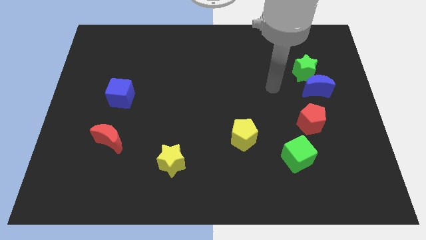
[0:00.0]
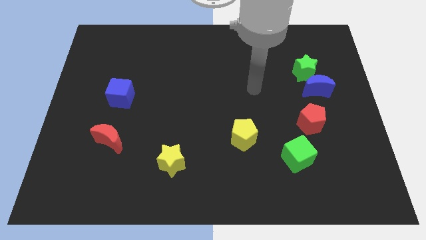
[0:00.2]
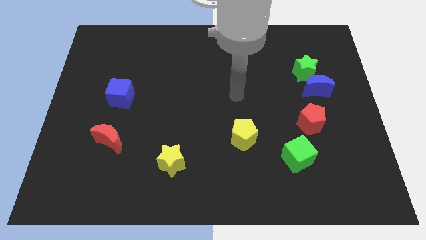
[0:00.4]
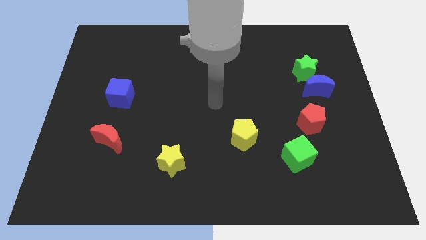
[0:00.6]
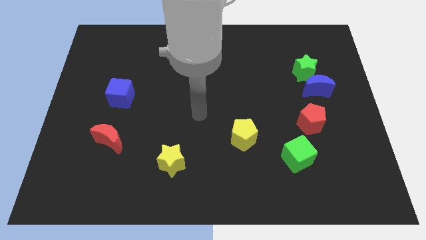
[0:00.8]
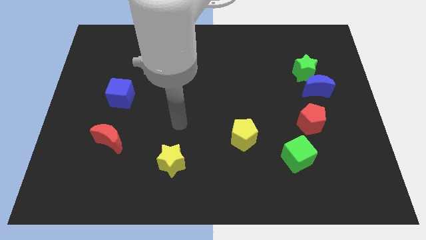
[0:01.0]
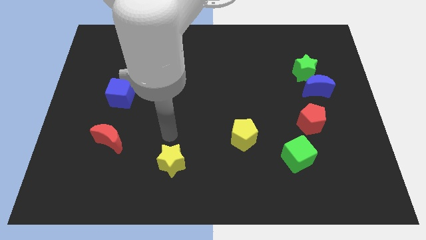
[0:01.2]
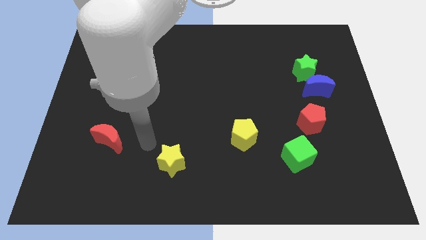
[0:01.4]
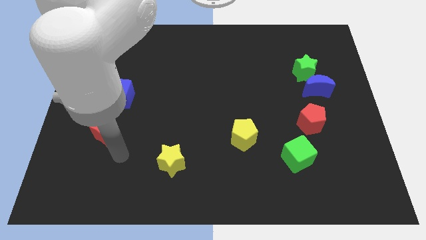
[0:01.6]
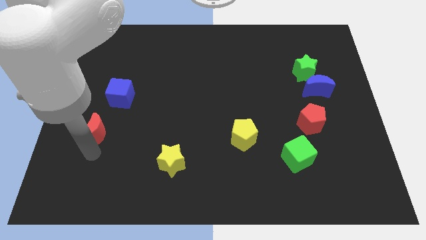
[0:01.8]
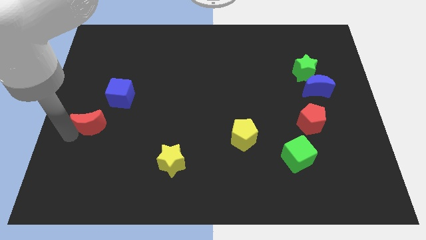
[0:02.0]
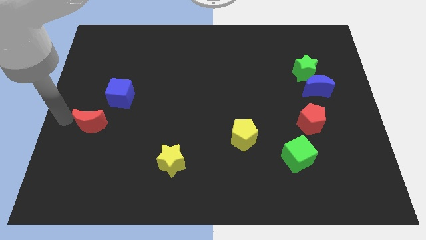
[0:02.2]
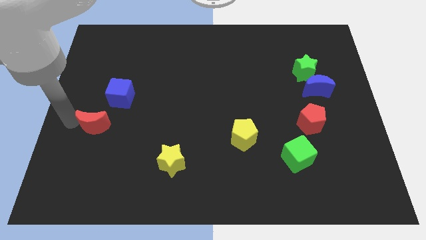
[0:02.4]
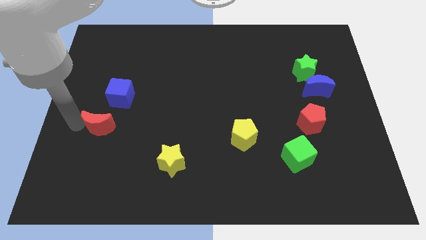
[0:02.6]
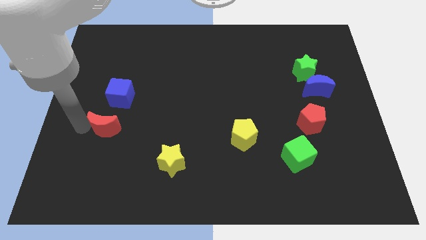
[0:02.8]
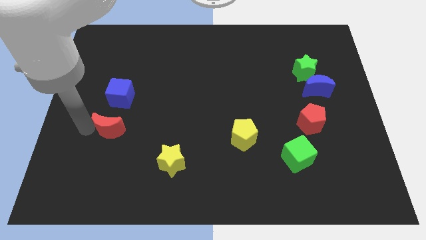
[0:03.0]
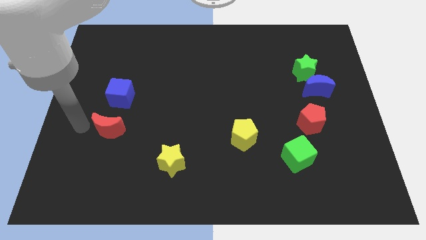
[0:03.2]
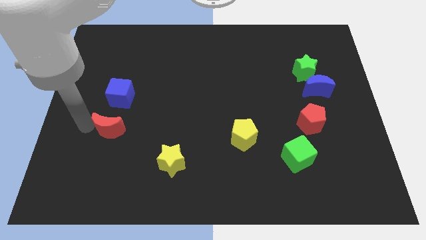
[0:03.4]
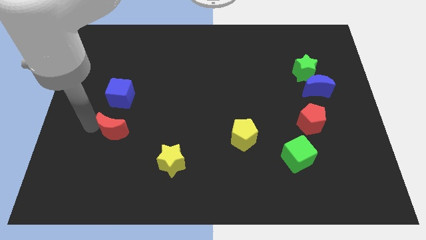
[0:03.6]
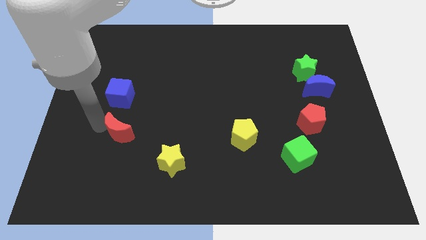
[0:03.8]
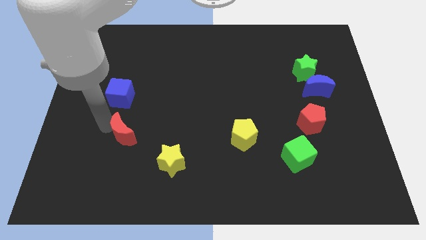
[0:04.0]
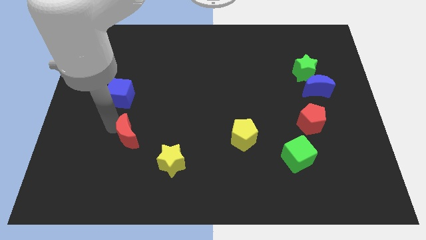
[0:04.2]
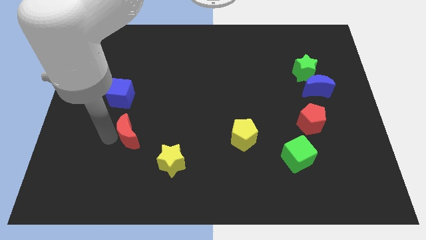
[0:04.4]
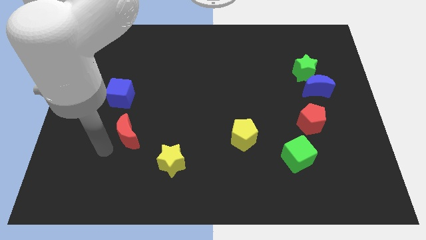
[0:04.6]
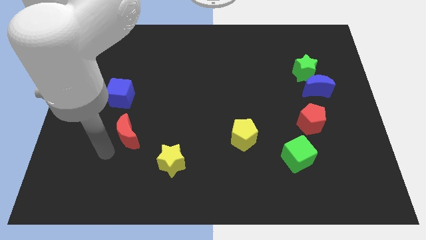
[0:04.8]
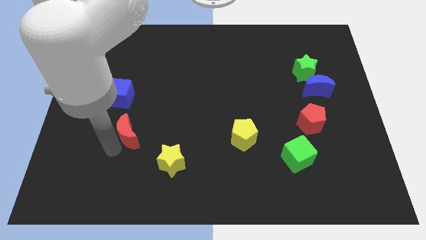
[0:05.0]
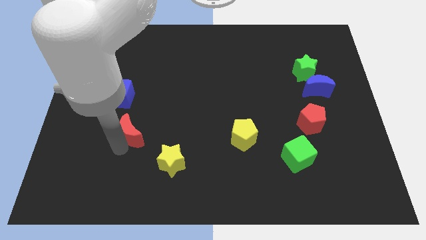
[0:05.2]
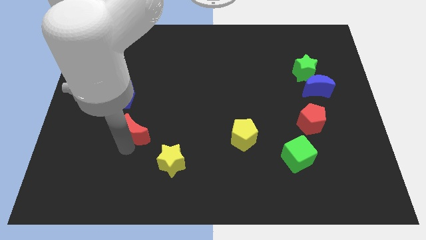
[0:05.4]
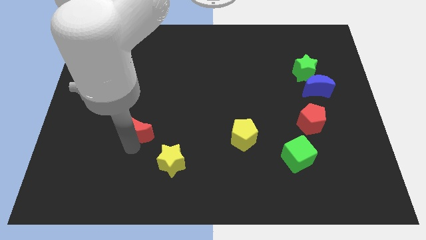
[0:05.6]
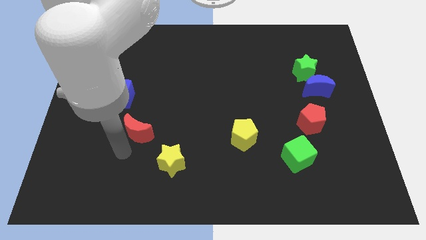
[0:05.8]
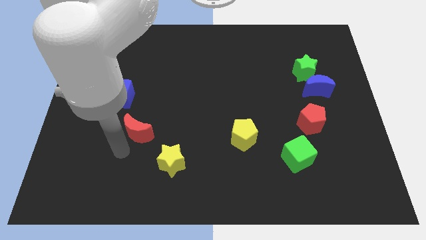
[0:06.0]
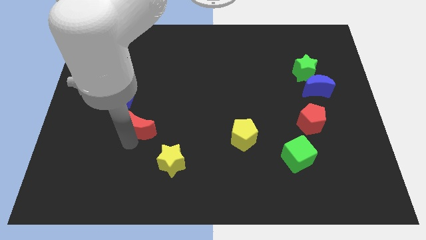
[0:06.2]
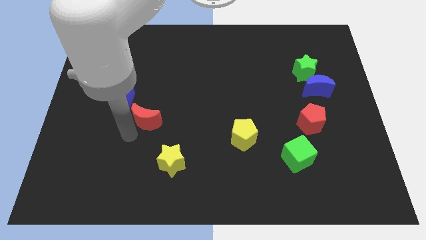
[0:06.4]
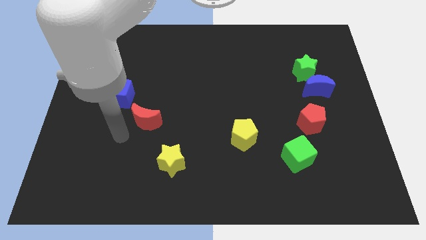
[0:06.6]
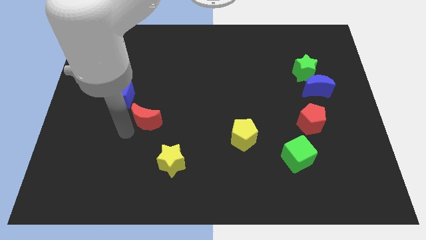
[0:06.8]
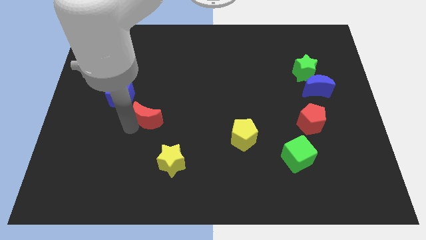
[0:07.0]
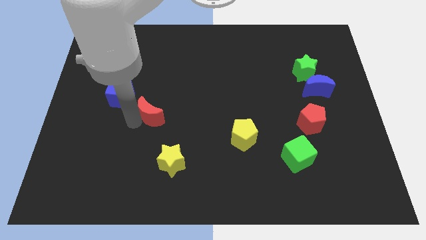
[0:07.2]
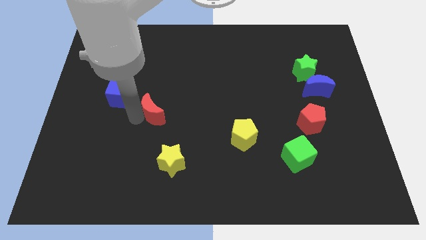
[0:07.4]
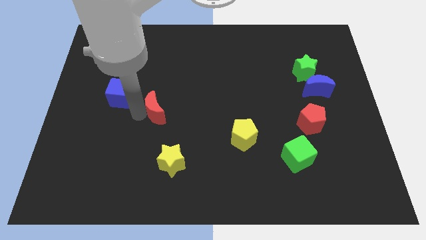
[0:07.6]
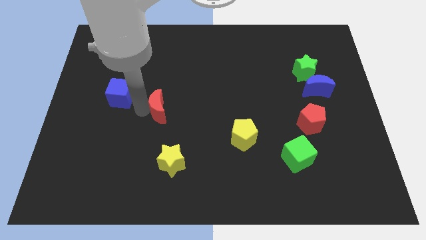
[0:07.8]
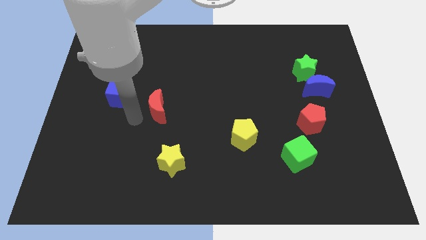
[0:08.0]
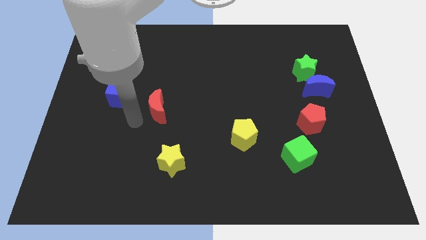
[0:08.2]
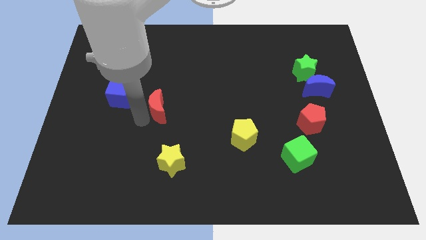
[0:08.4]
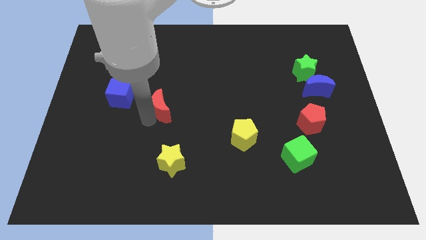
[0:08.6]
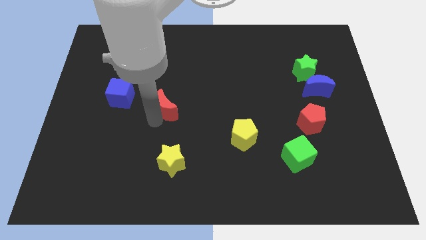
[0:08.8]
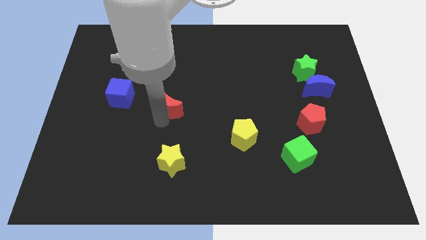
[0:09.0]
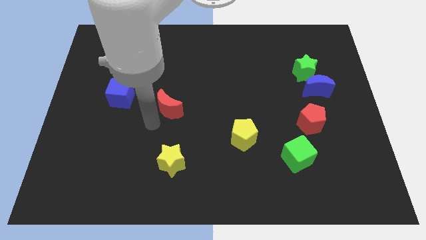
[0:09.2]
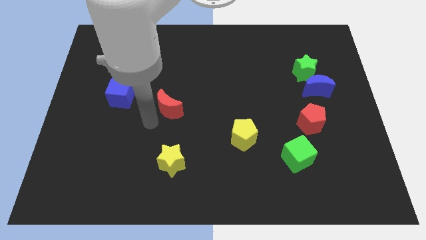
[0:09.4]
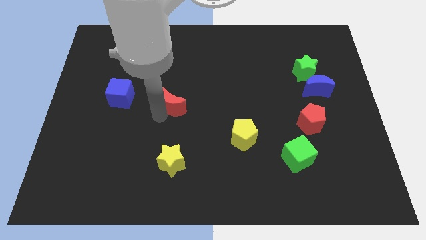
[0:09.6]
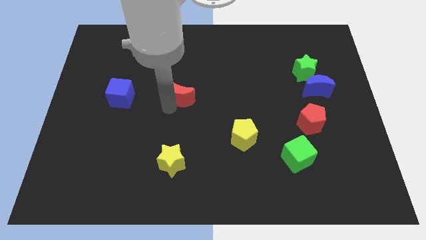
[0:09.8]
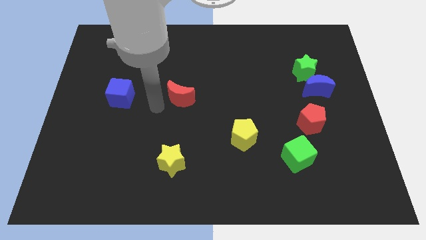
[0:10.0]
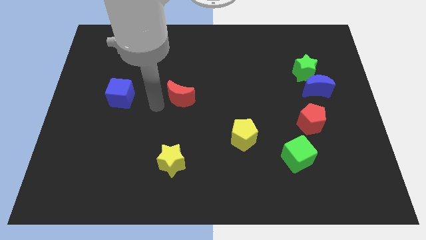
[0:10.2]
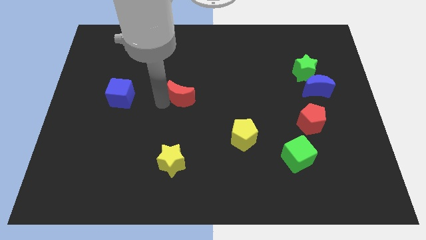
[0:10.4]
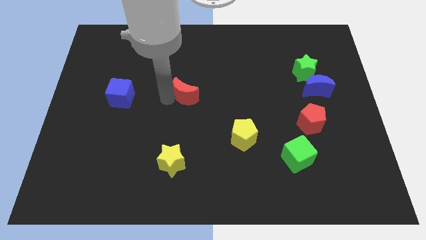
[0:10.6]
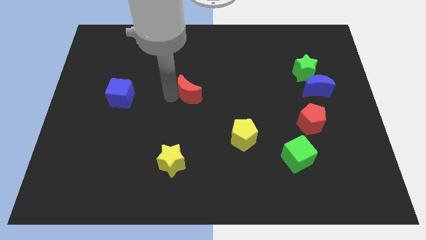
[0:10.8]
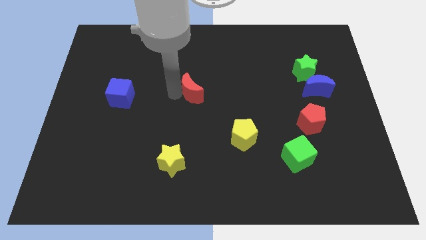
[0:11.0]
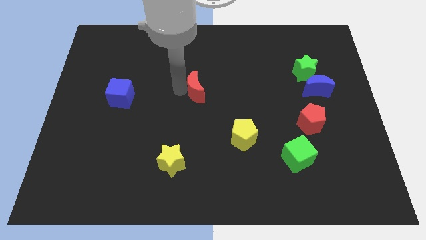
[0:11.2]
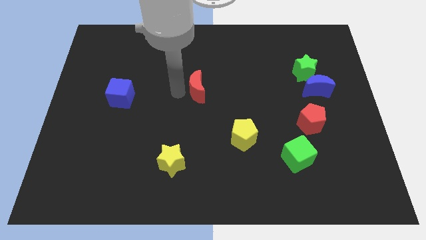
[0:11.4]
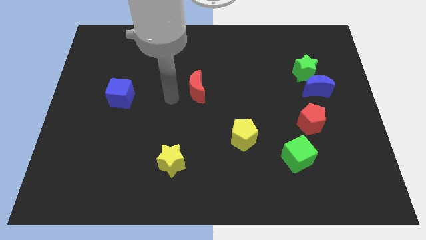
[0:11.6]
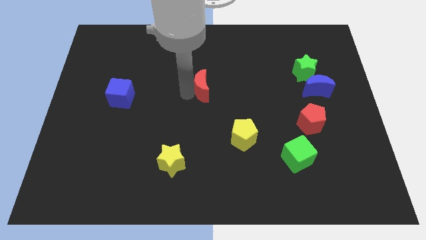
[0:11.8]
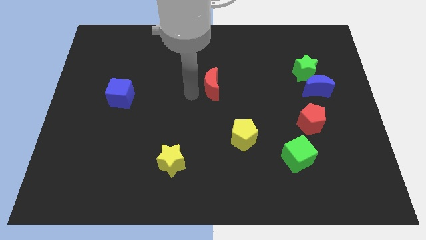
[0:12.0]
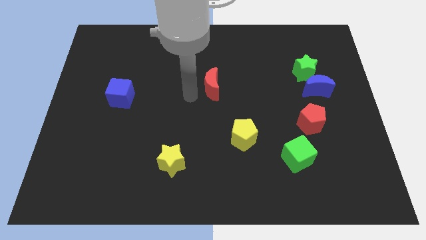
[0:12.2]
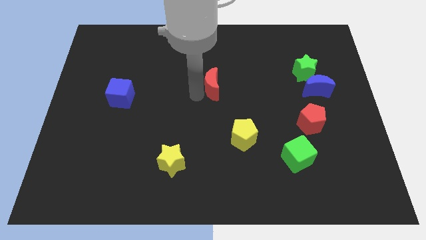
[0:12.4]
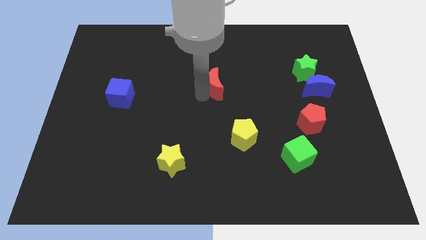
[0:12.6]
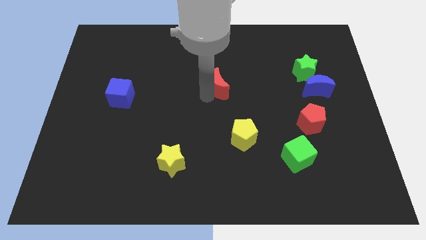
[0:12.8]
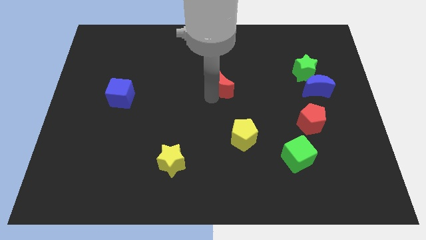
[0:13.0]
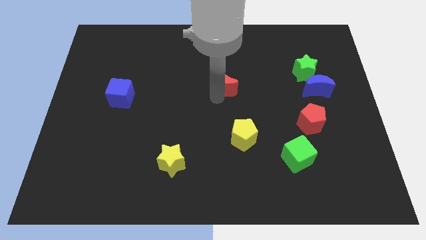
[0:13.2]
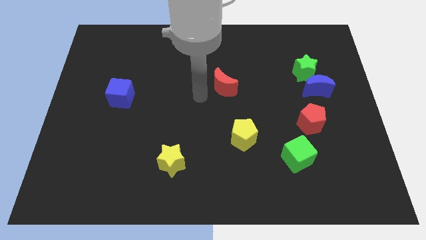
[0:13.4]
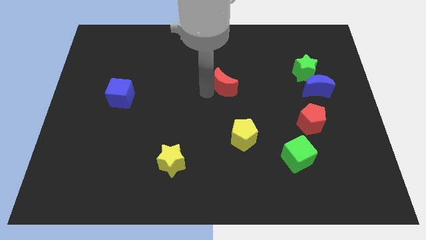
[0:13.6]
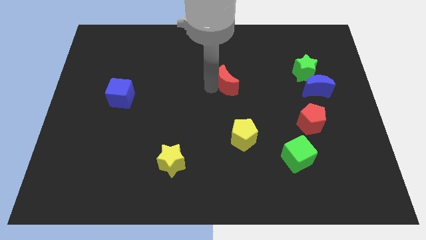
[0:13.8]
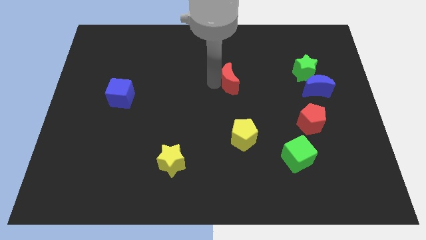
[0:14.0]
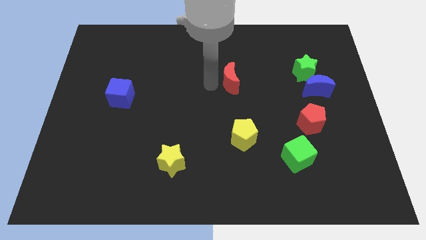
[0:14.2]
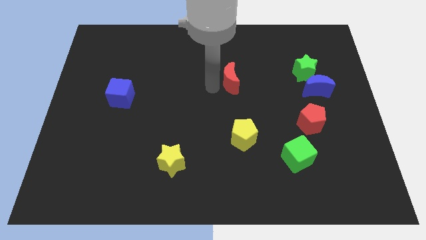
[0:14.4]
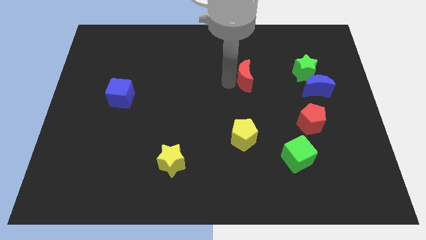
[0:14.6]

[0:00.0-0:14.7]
slide the red moon just left of the green star
